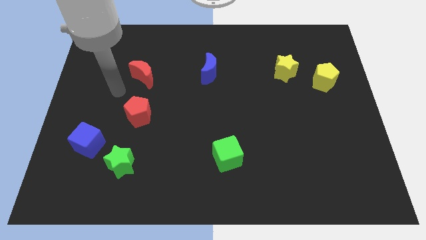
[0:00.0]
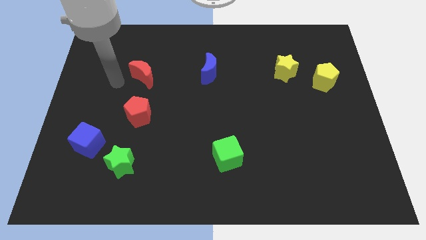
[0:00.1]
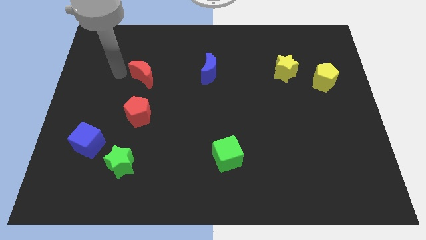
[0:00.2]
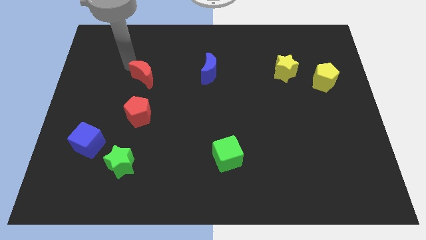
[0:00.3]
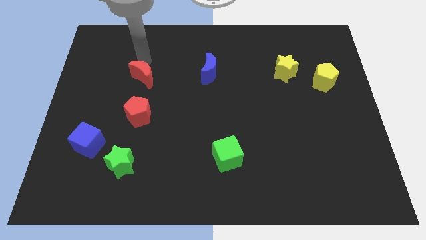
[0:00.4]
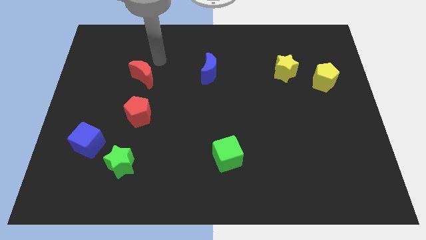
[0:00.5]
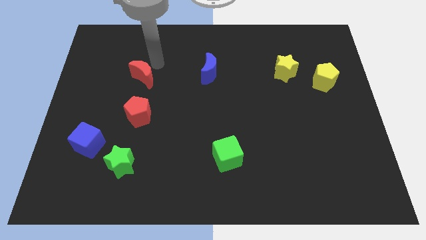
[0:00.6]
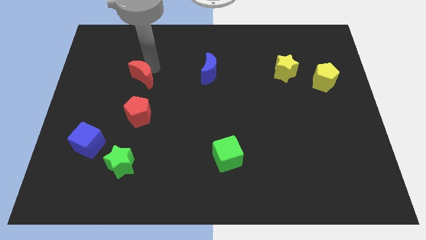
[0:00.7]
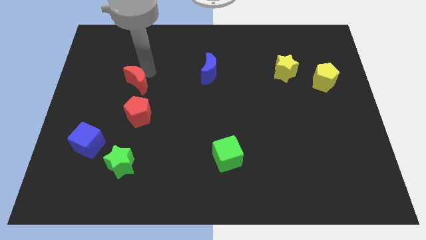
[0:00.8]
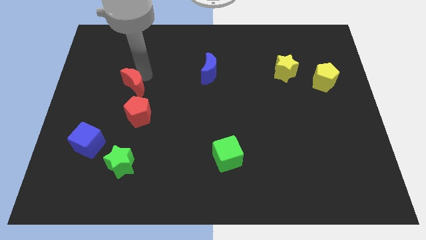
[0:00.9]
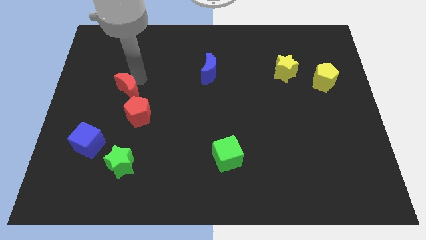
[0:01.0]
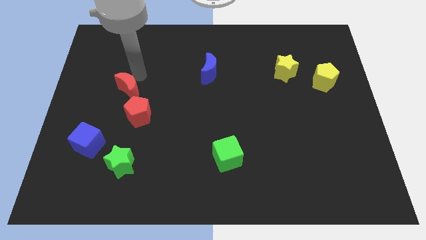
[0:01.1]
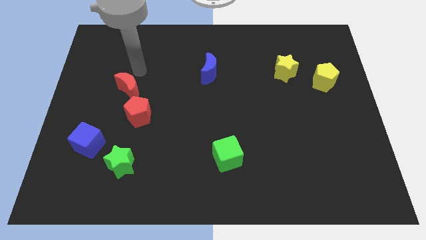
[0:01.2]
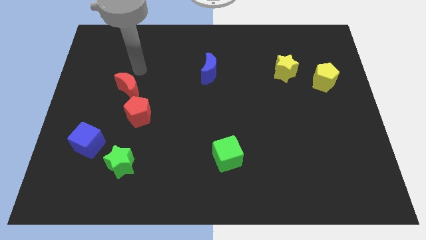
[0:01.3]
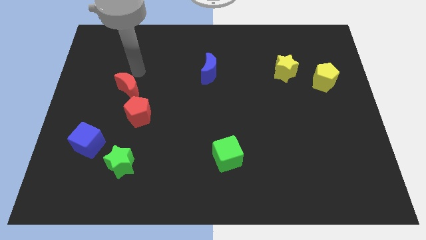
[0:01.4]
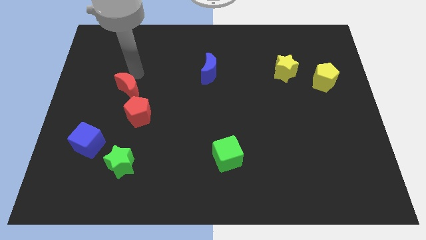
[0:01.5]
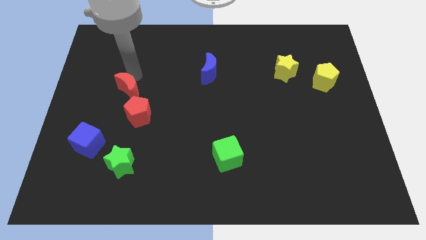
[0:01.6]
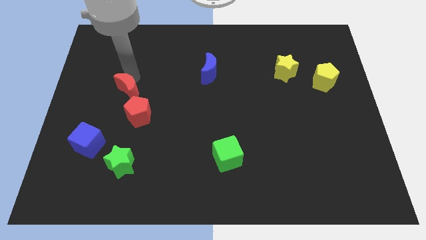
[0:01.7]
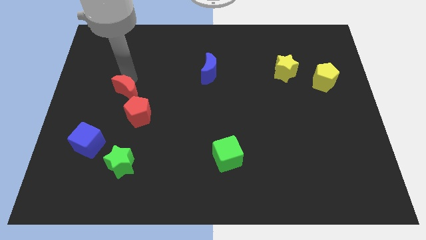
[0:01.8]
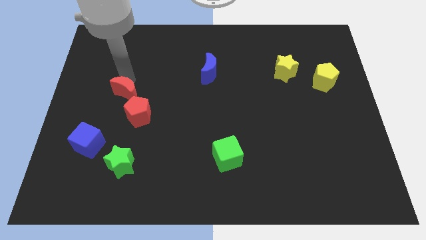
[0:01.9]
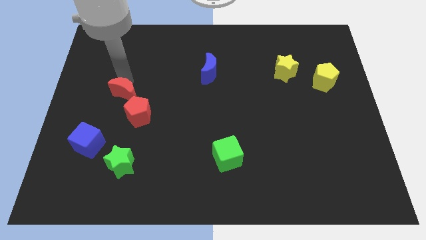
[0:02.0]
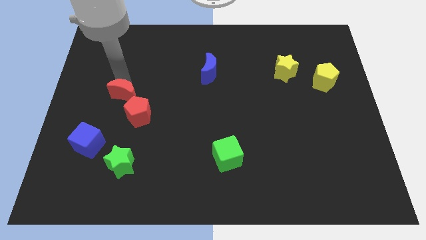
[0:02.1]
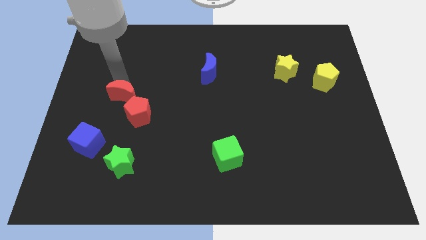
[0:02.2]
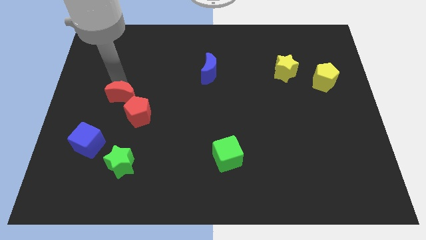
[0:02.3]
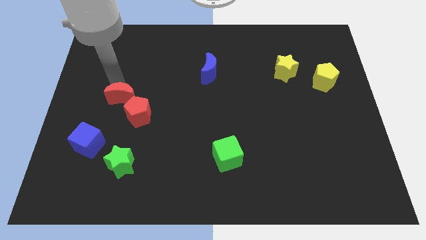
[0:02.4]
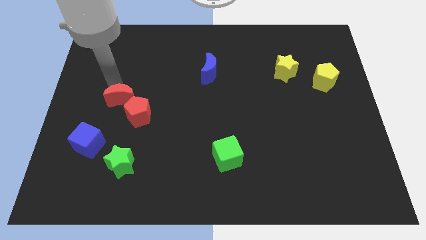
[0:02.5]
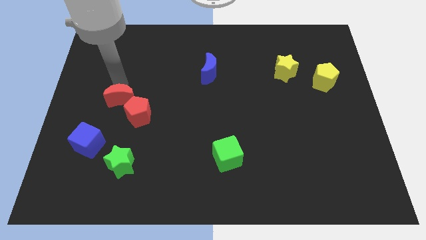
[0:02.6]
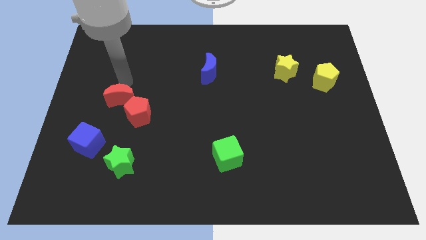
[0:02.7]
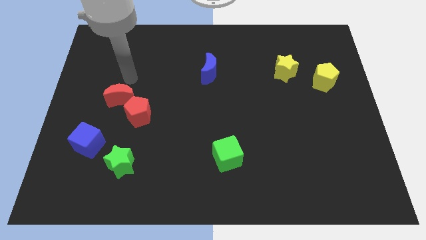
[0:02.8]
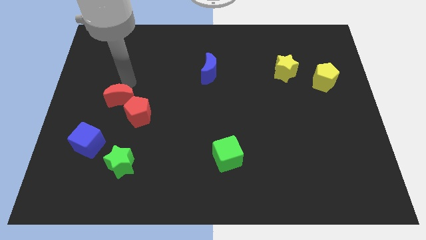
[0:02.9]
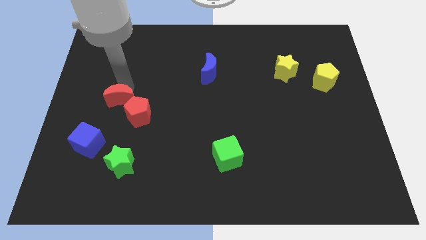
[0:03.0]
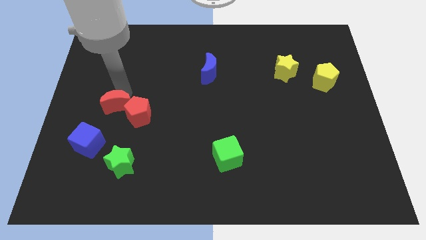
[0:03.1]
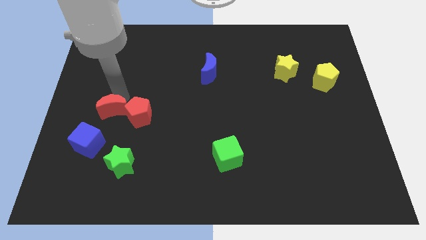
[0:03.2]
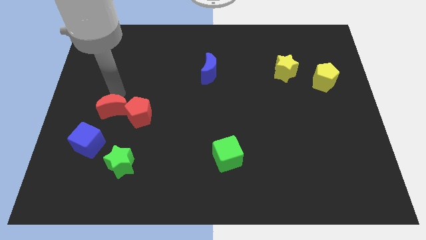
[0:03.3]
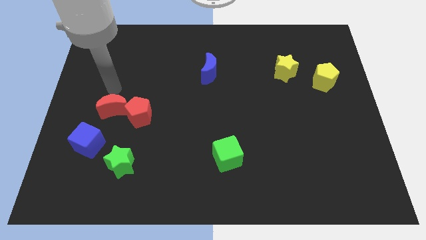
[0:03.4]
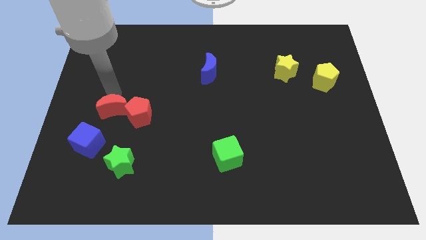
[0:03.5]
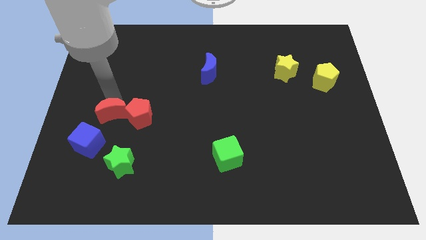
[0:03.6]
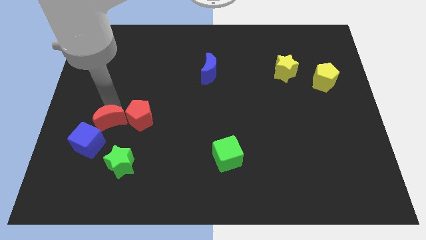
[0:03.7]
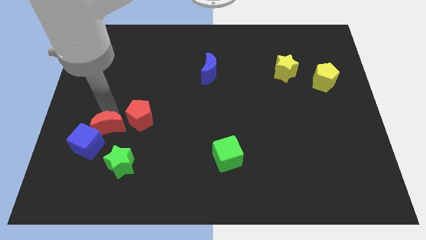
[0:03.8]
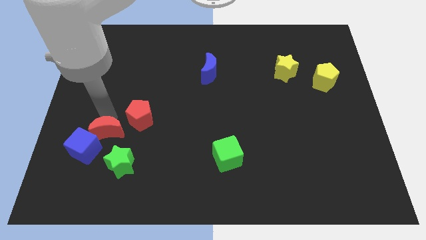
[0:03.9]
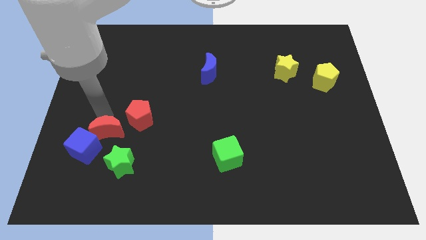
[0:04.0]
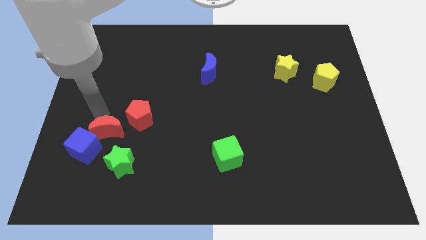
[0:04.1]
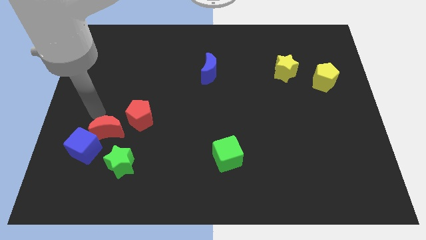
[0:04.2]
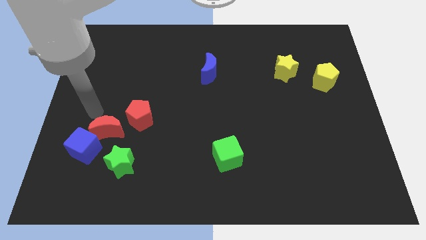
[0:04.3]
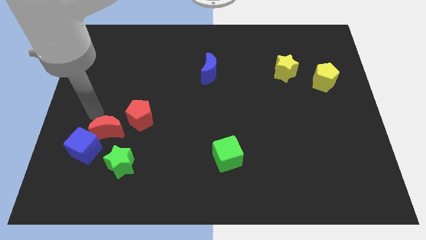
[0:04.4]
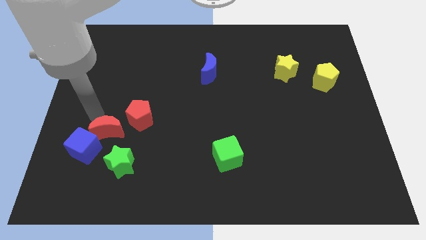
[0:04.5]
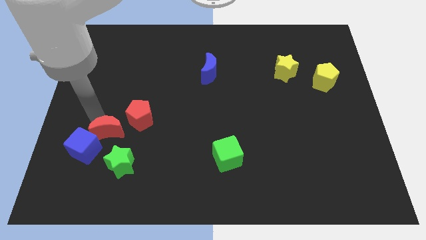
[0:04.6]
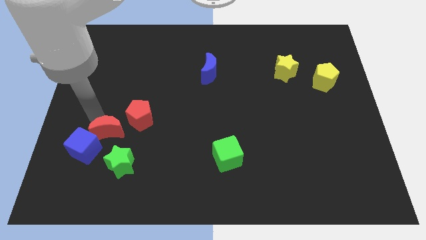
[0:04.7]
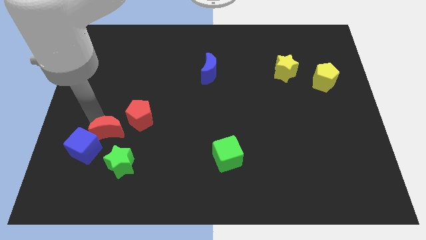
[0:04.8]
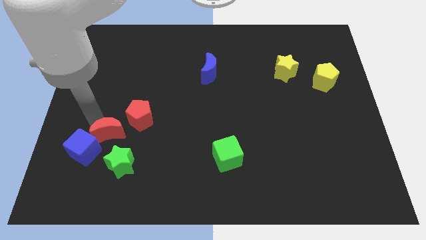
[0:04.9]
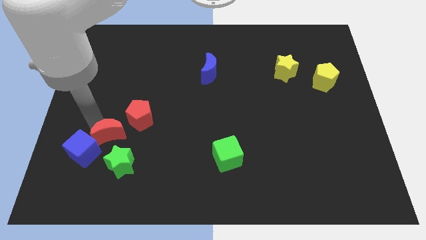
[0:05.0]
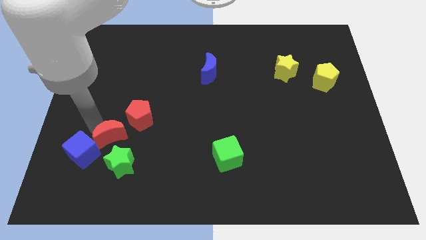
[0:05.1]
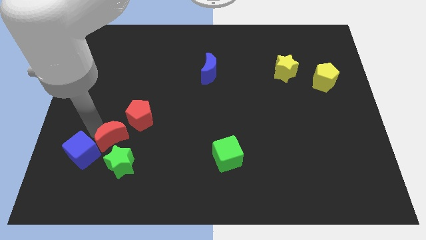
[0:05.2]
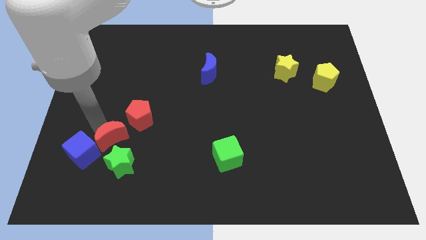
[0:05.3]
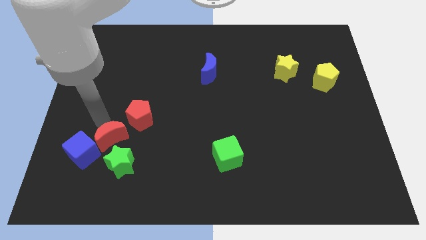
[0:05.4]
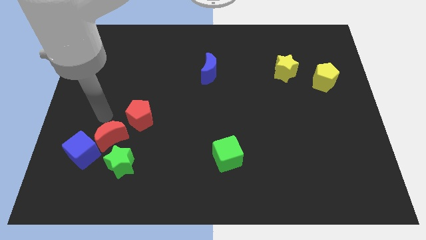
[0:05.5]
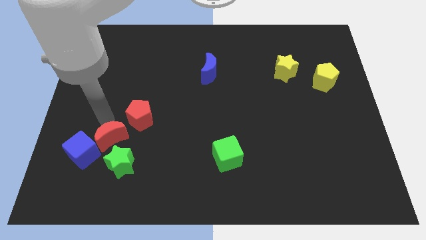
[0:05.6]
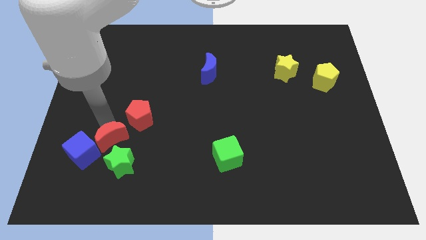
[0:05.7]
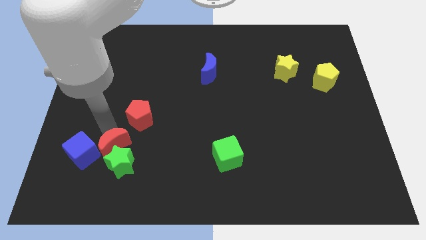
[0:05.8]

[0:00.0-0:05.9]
put the red moon close to the green star

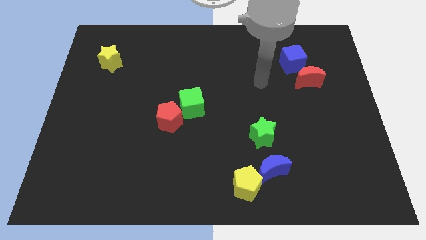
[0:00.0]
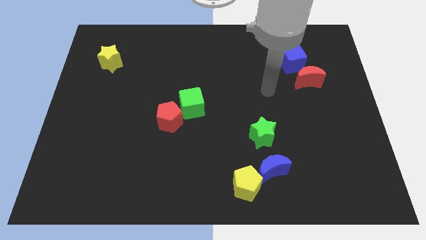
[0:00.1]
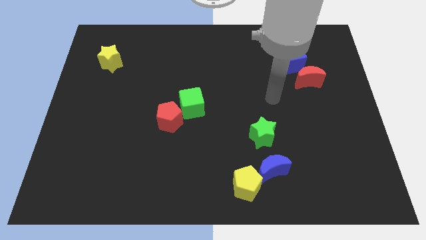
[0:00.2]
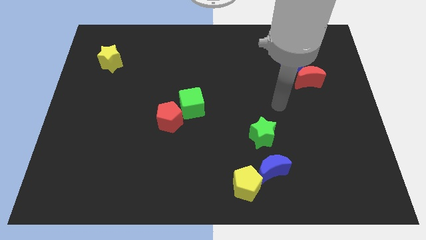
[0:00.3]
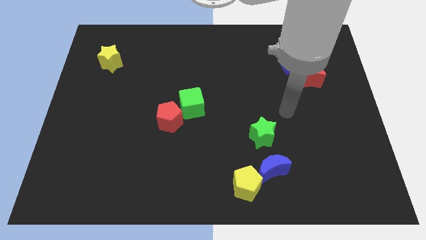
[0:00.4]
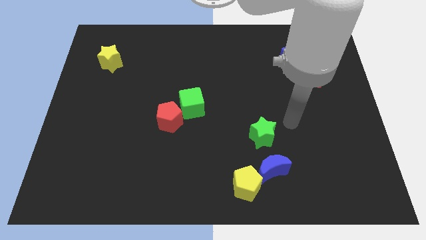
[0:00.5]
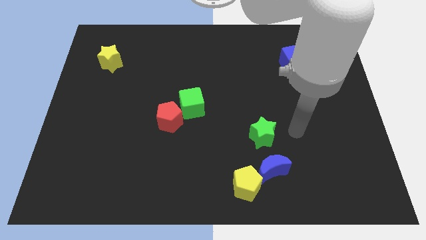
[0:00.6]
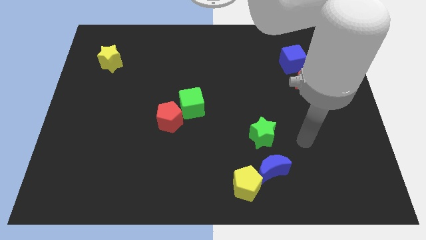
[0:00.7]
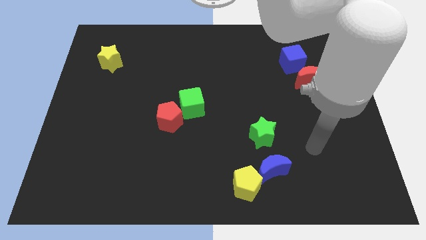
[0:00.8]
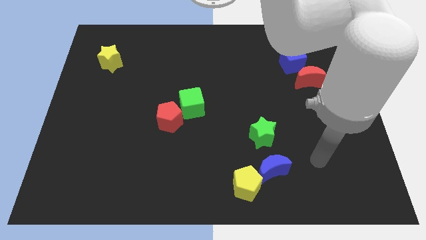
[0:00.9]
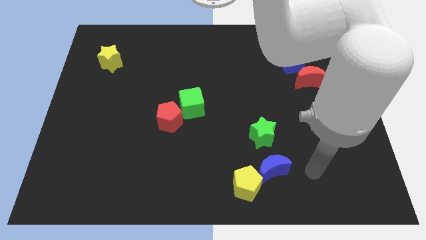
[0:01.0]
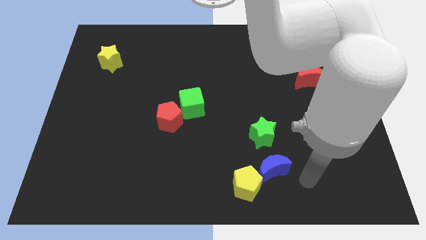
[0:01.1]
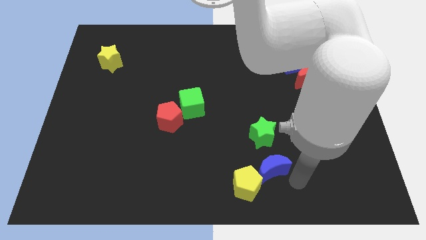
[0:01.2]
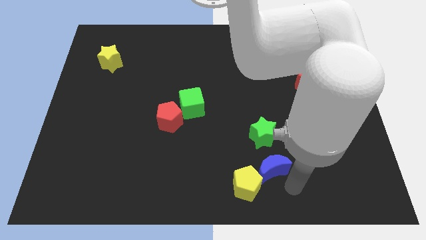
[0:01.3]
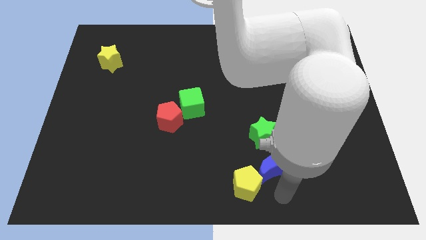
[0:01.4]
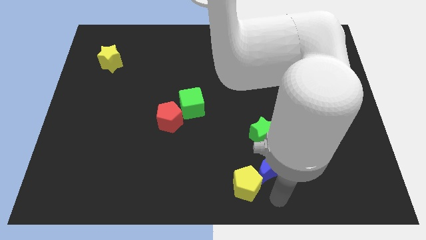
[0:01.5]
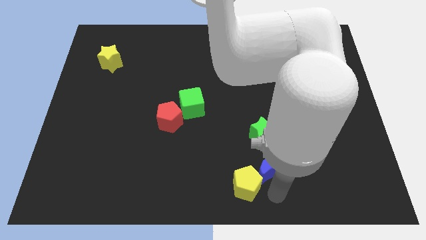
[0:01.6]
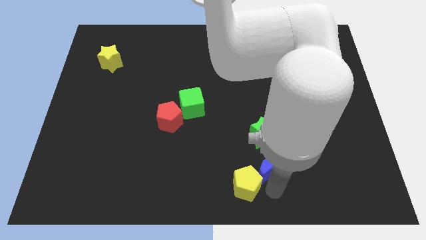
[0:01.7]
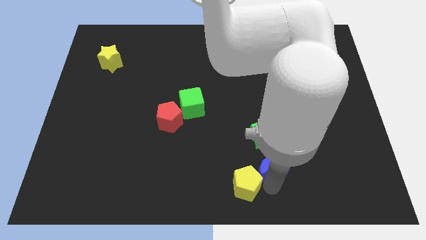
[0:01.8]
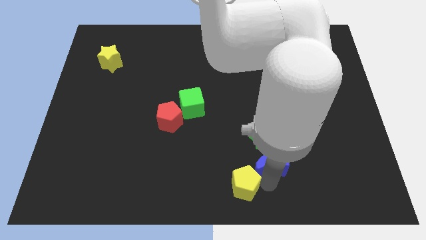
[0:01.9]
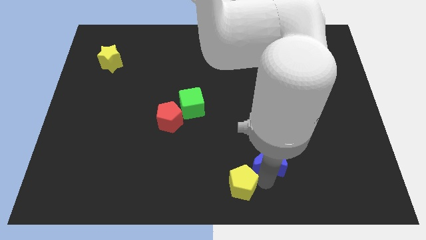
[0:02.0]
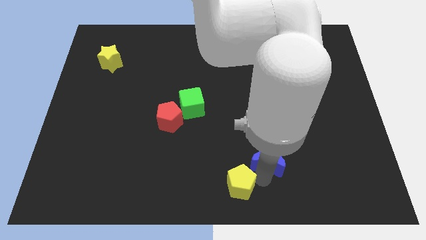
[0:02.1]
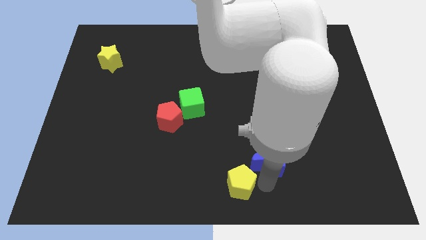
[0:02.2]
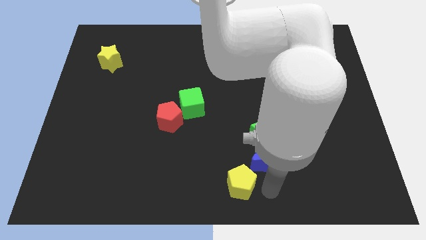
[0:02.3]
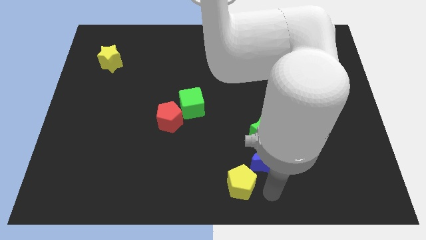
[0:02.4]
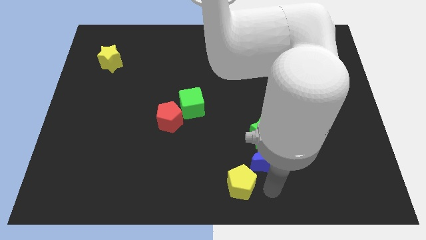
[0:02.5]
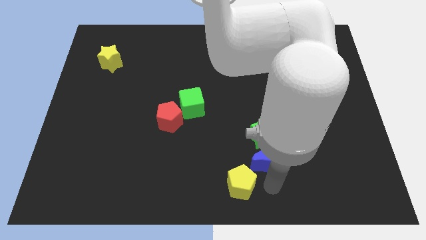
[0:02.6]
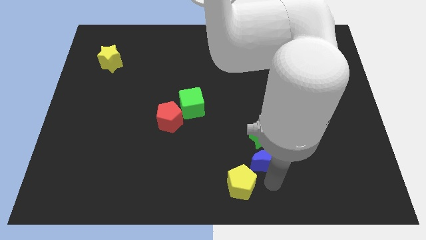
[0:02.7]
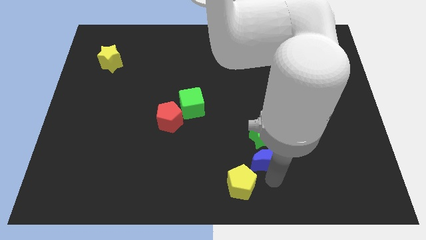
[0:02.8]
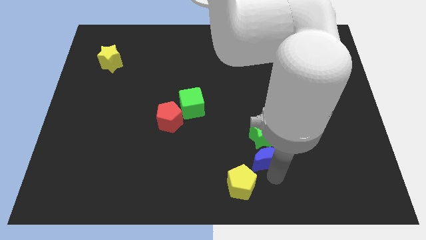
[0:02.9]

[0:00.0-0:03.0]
move the blue moon next to the green star
